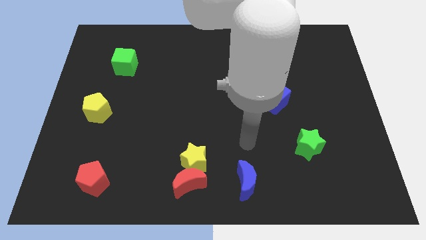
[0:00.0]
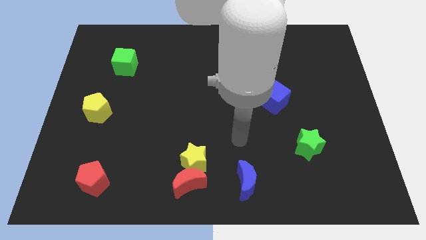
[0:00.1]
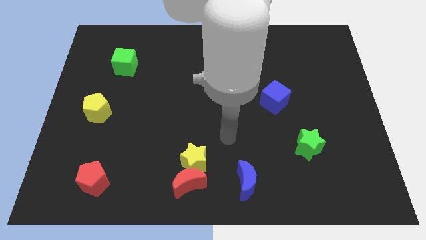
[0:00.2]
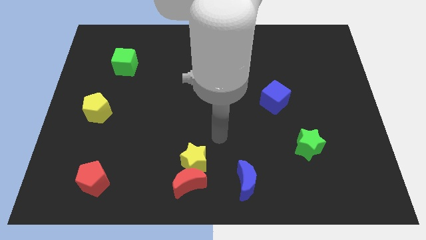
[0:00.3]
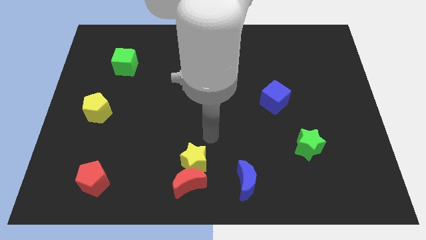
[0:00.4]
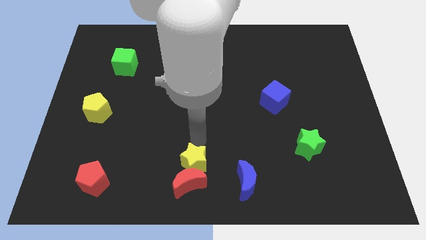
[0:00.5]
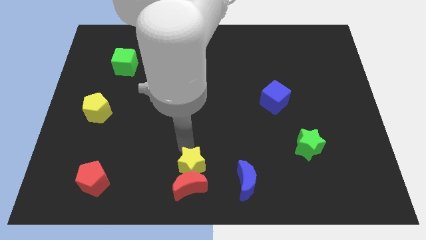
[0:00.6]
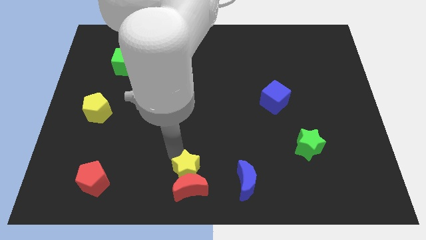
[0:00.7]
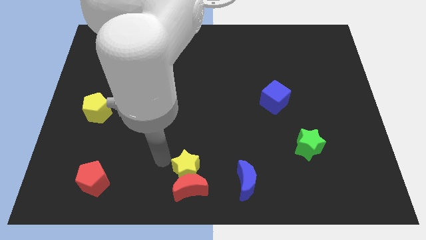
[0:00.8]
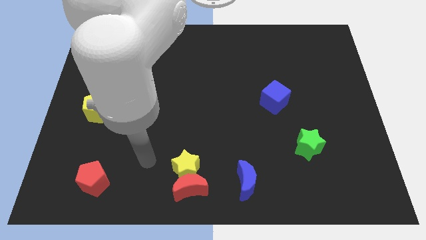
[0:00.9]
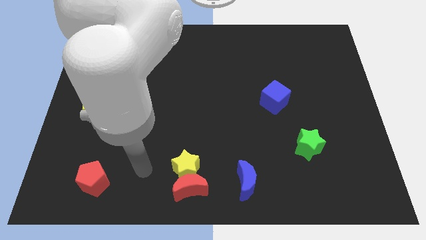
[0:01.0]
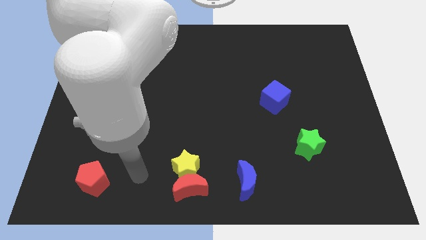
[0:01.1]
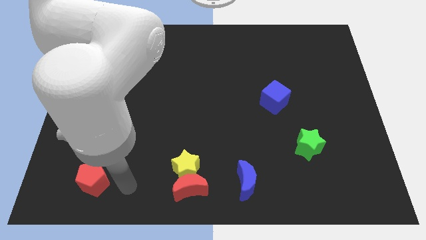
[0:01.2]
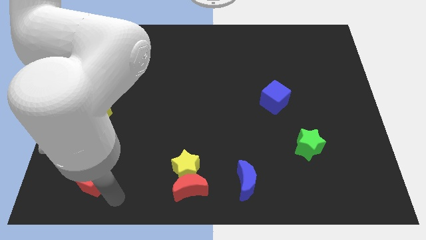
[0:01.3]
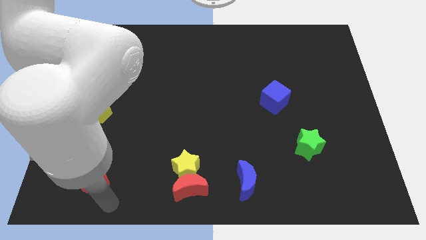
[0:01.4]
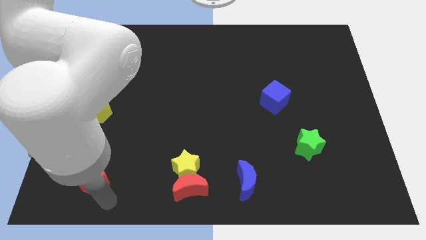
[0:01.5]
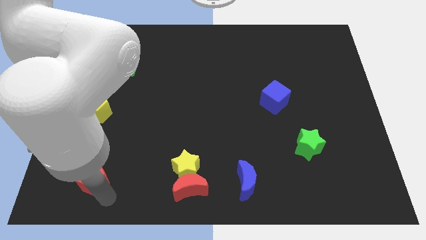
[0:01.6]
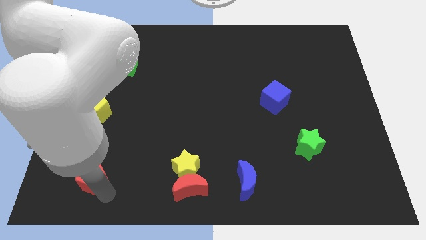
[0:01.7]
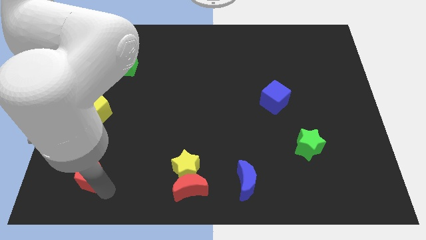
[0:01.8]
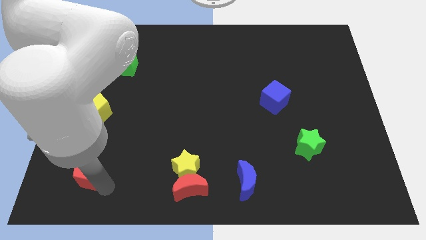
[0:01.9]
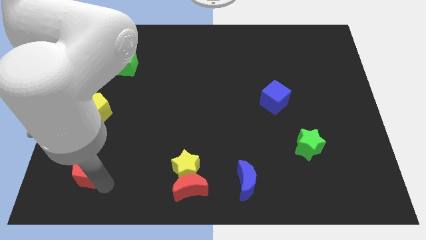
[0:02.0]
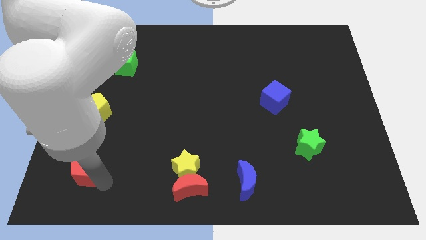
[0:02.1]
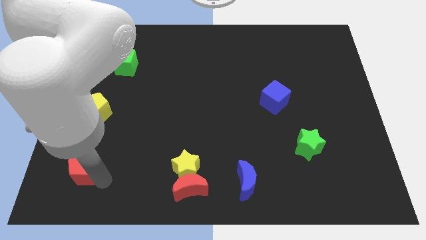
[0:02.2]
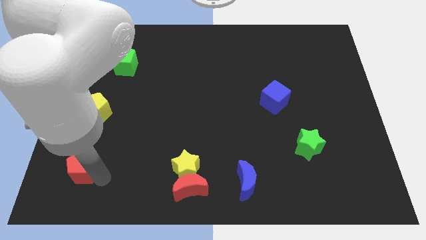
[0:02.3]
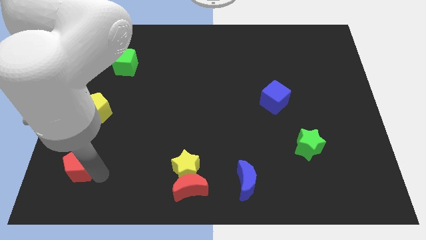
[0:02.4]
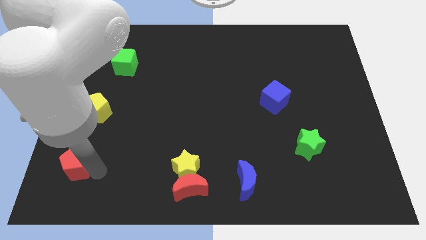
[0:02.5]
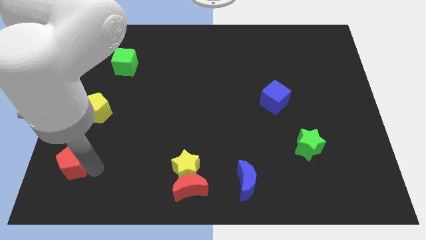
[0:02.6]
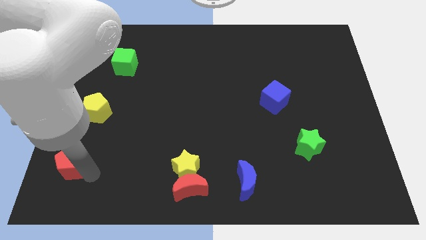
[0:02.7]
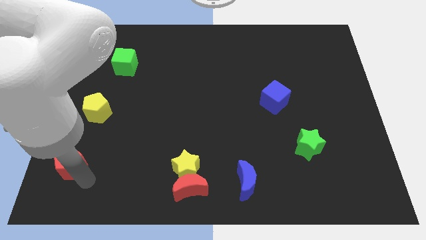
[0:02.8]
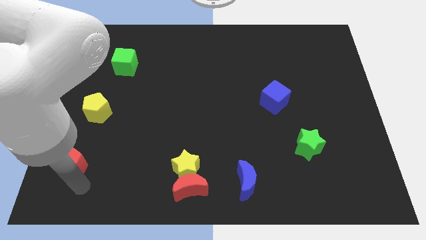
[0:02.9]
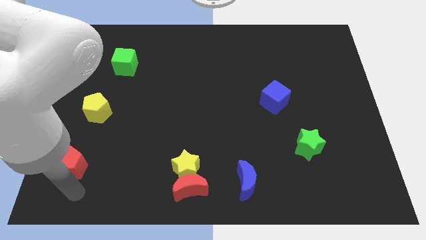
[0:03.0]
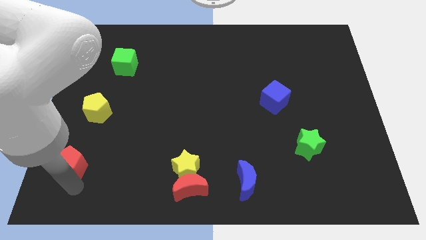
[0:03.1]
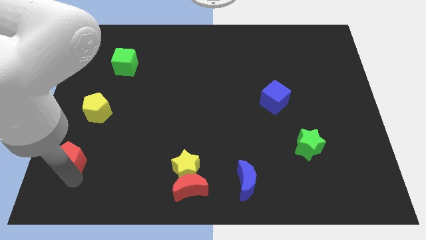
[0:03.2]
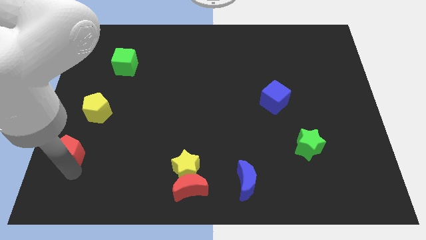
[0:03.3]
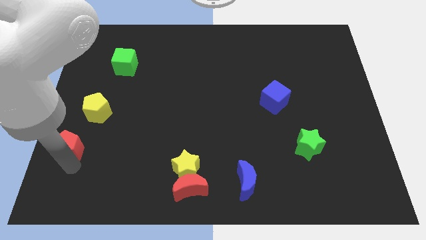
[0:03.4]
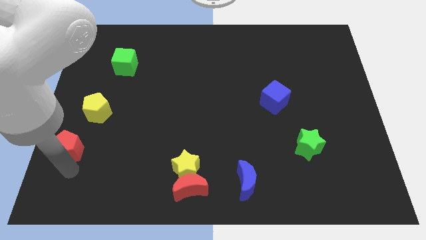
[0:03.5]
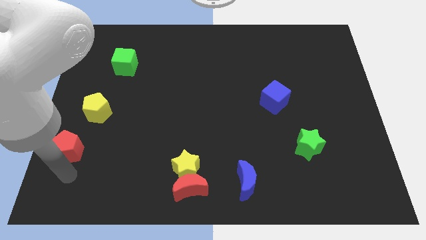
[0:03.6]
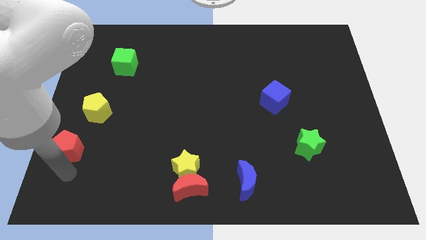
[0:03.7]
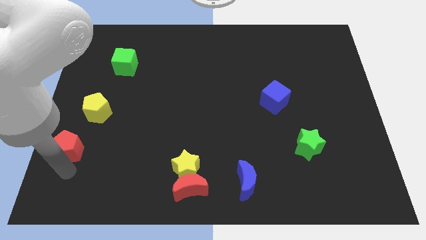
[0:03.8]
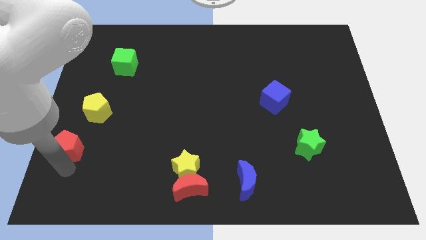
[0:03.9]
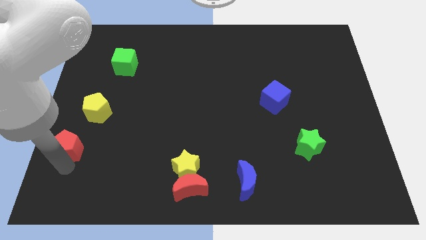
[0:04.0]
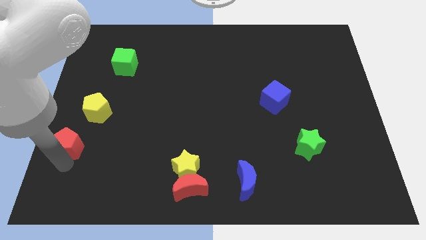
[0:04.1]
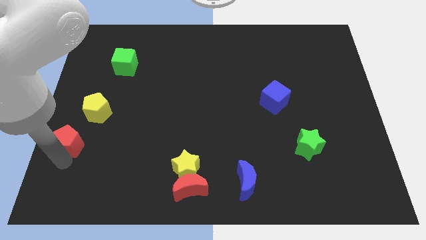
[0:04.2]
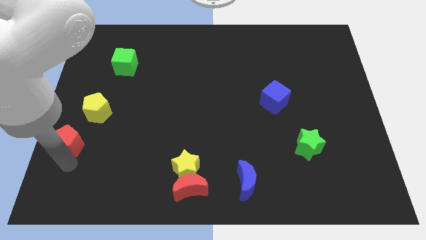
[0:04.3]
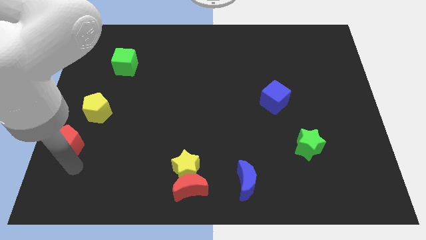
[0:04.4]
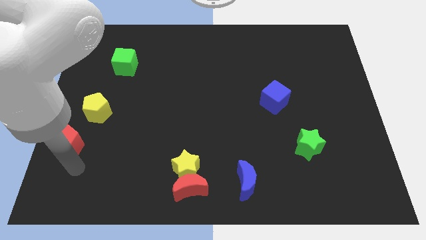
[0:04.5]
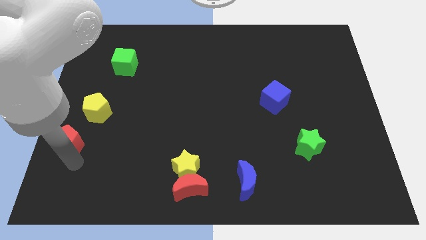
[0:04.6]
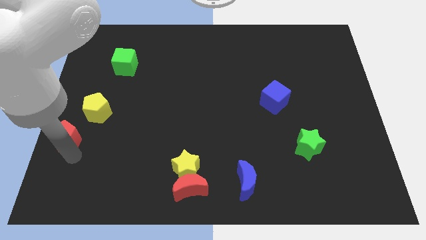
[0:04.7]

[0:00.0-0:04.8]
slide the red pentagon to the left side of the board

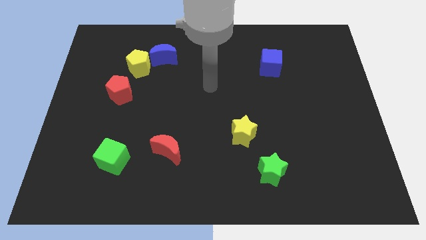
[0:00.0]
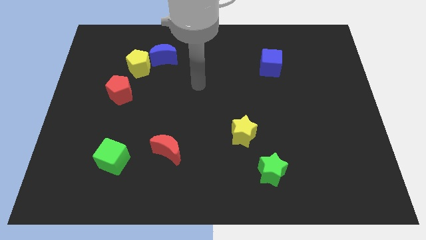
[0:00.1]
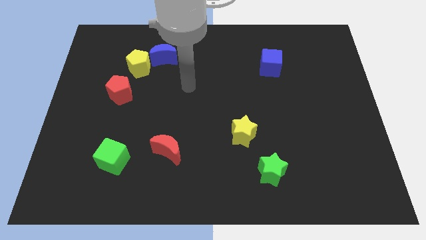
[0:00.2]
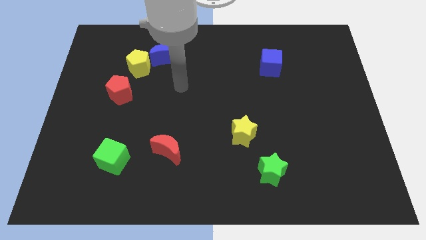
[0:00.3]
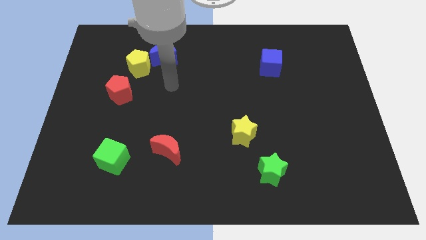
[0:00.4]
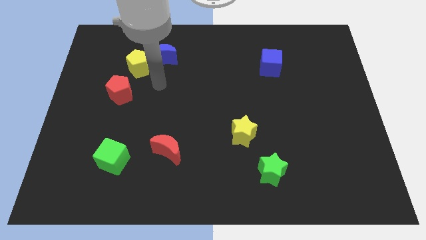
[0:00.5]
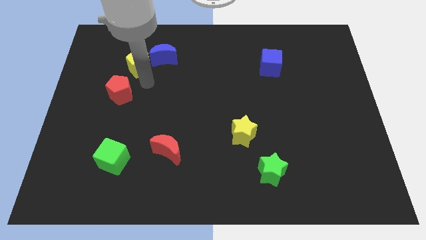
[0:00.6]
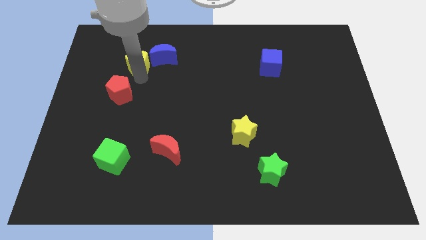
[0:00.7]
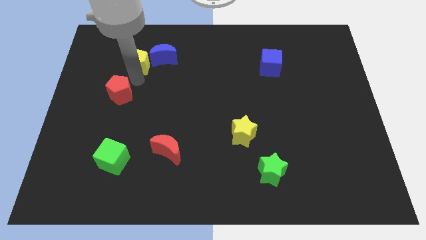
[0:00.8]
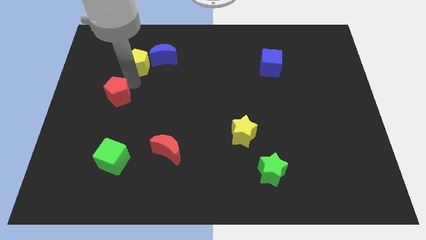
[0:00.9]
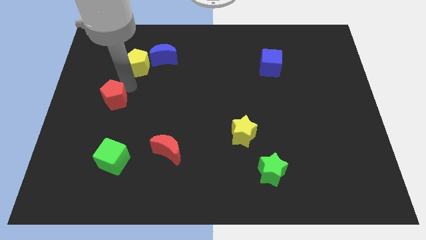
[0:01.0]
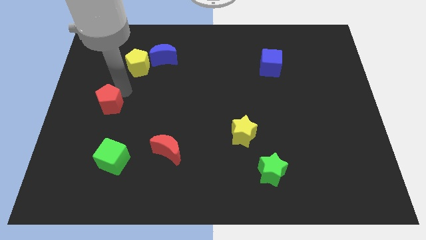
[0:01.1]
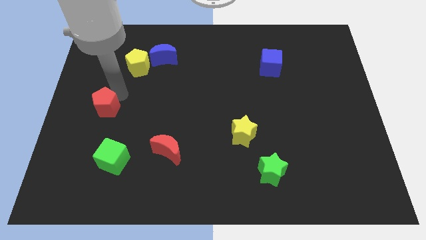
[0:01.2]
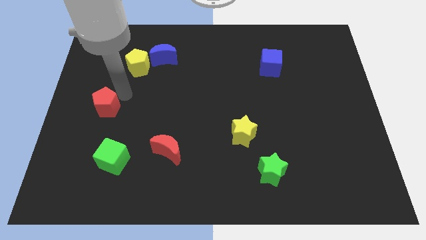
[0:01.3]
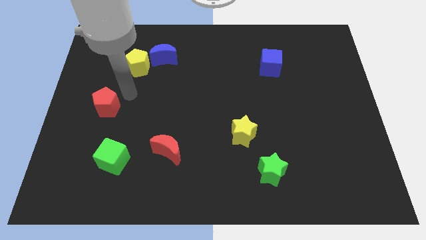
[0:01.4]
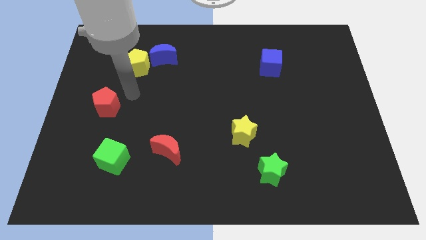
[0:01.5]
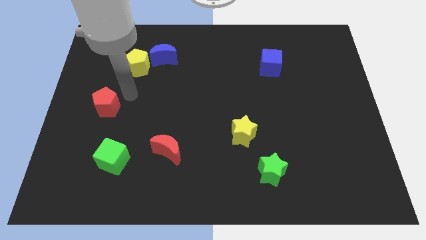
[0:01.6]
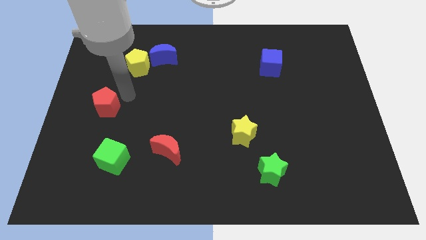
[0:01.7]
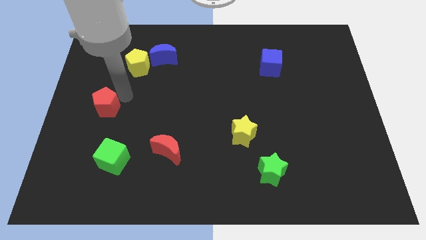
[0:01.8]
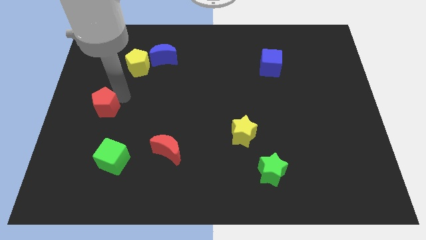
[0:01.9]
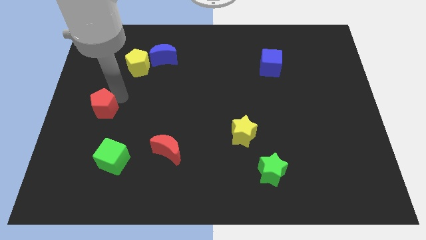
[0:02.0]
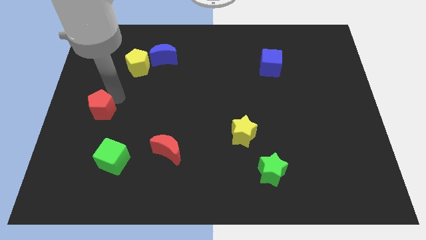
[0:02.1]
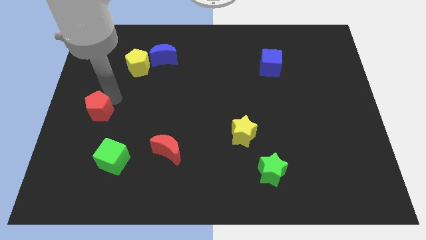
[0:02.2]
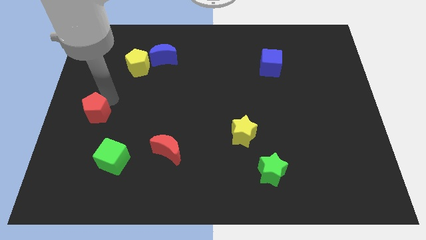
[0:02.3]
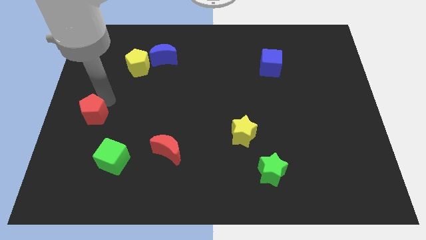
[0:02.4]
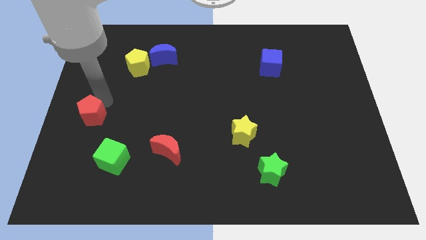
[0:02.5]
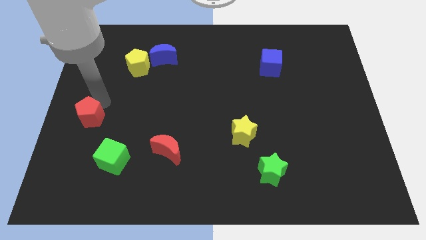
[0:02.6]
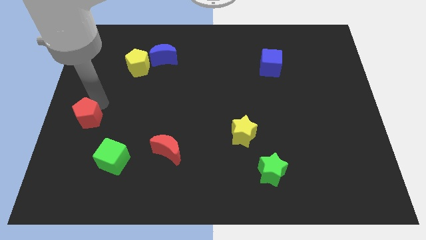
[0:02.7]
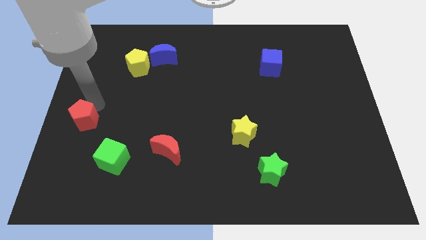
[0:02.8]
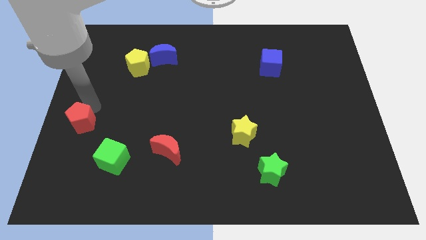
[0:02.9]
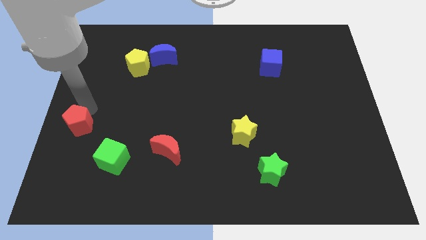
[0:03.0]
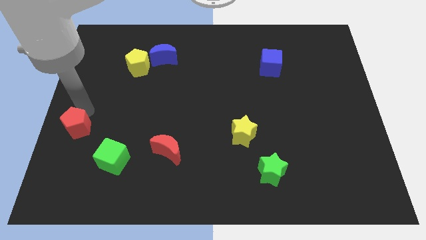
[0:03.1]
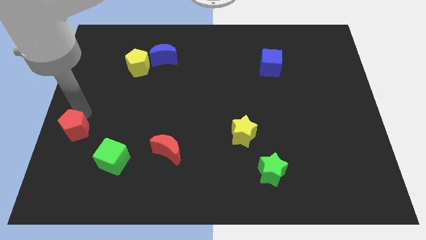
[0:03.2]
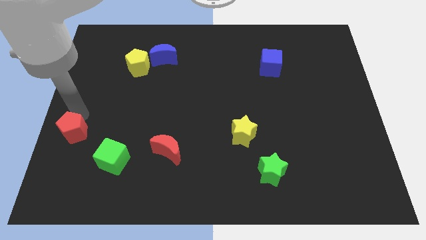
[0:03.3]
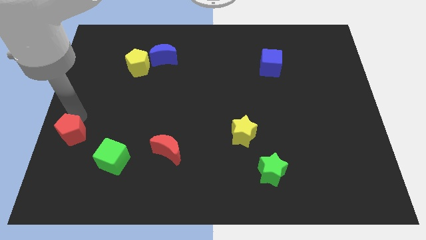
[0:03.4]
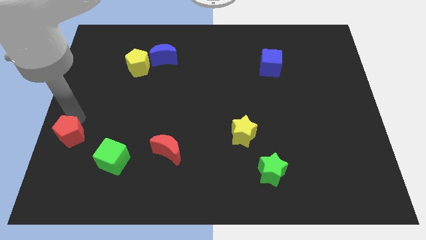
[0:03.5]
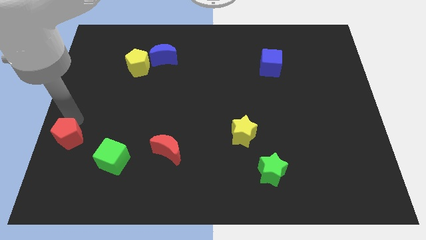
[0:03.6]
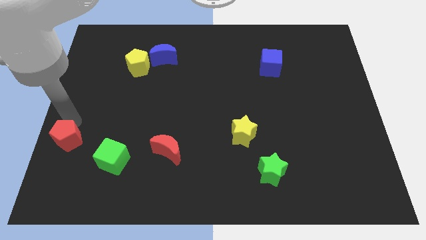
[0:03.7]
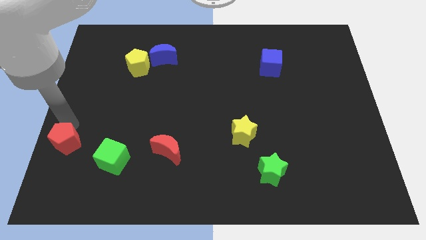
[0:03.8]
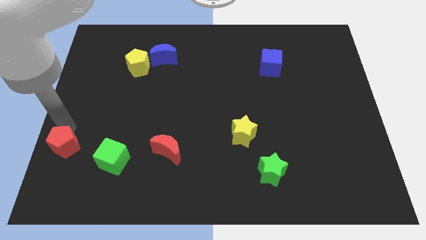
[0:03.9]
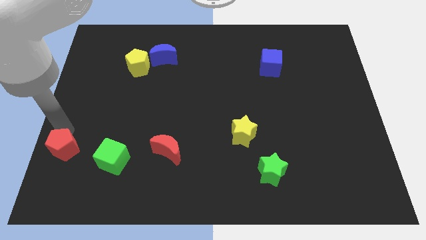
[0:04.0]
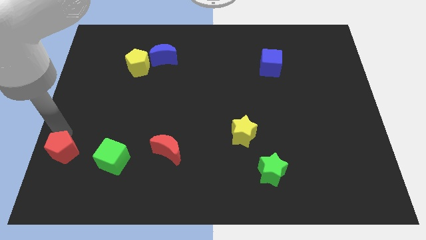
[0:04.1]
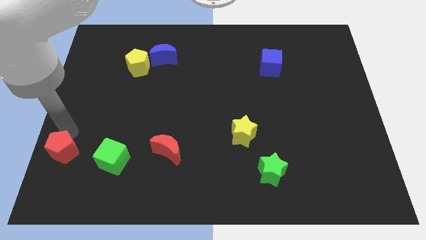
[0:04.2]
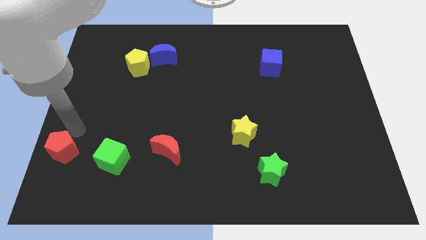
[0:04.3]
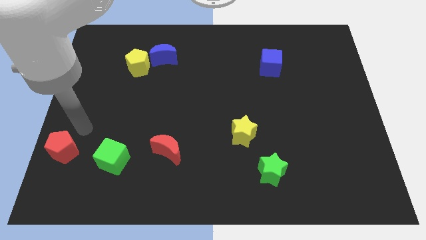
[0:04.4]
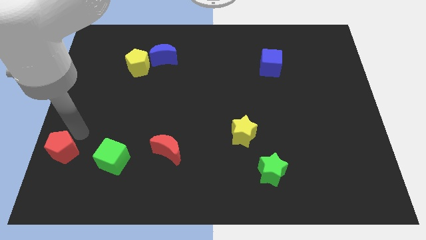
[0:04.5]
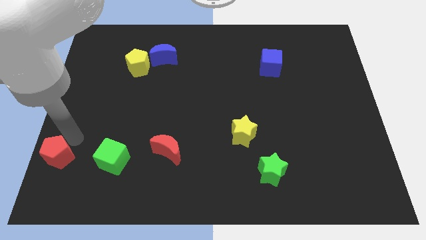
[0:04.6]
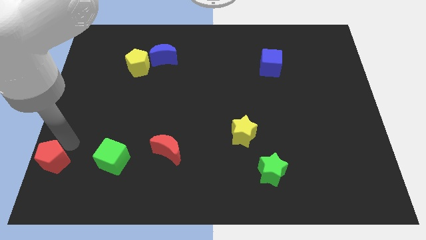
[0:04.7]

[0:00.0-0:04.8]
push the red pentagon to the lower left corner
